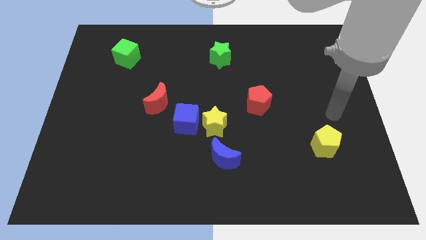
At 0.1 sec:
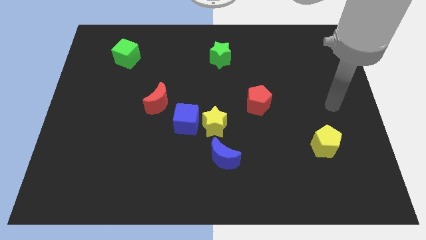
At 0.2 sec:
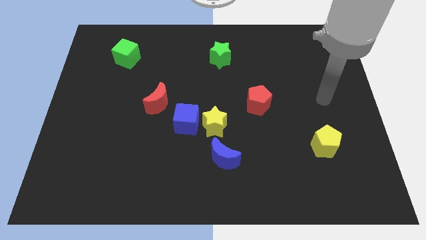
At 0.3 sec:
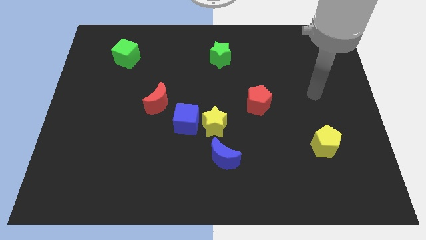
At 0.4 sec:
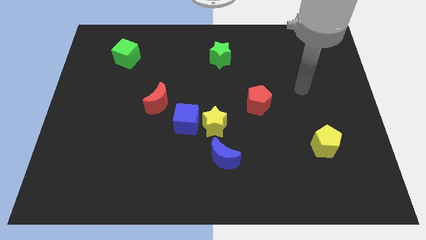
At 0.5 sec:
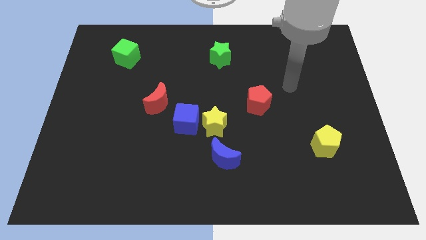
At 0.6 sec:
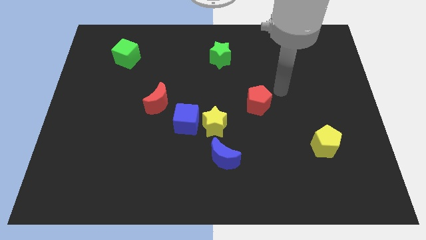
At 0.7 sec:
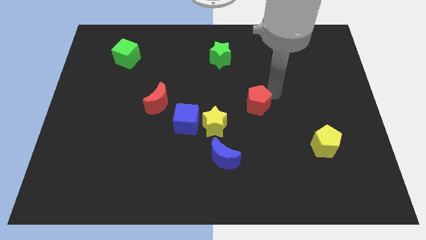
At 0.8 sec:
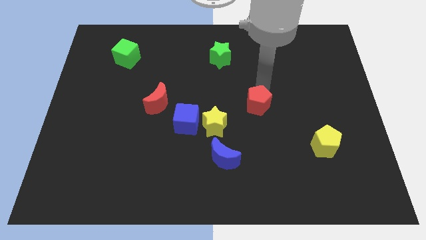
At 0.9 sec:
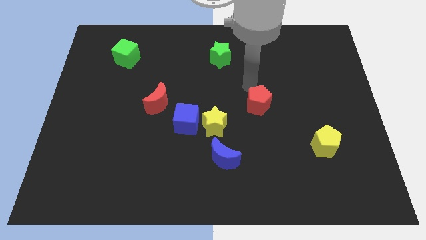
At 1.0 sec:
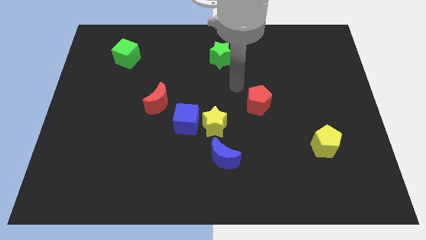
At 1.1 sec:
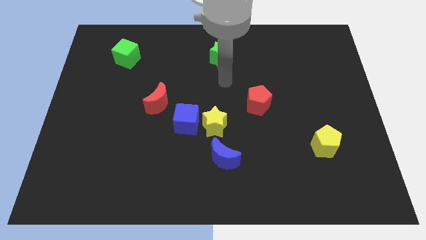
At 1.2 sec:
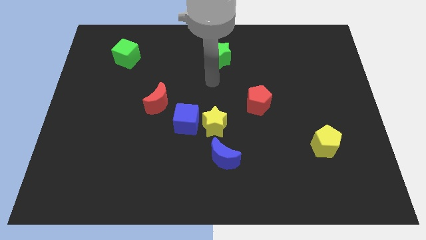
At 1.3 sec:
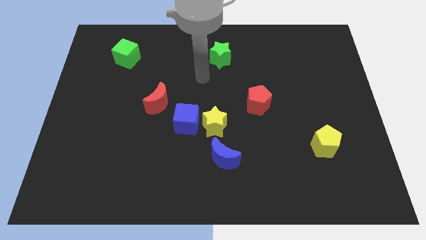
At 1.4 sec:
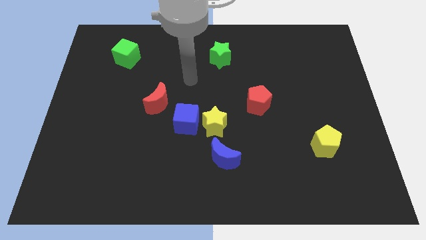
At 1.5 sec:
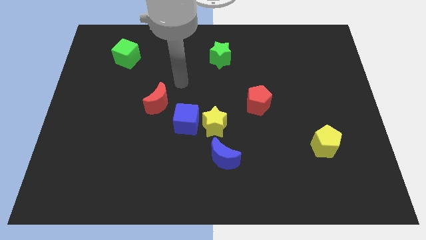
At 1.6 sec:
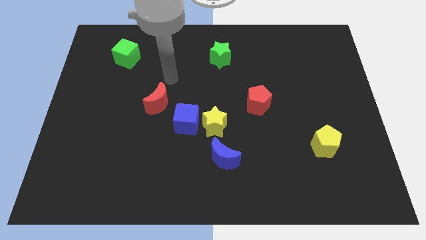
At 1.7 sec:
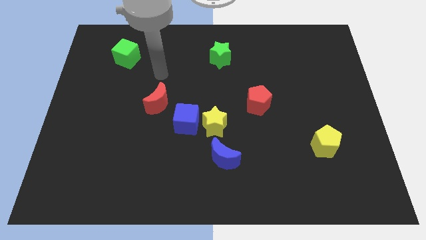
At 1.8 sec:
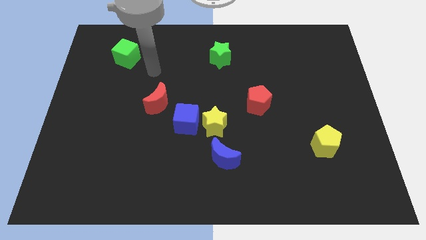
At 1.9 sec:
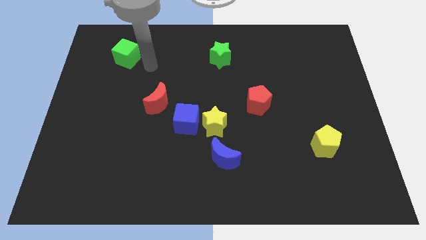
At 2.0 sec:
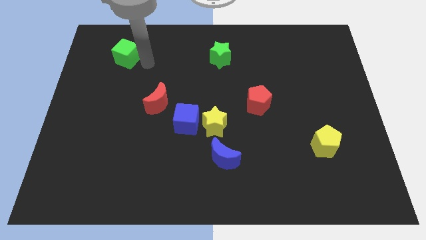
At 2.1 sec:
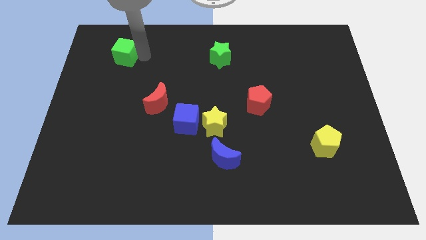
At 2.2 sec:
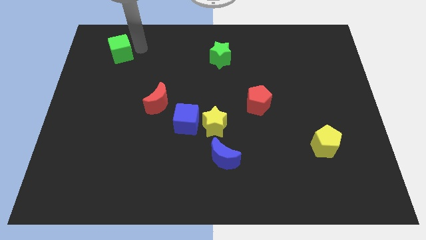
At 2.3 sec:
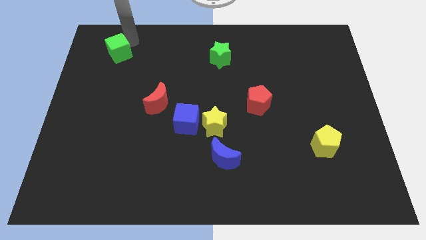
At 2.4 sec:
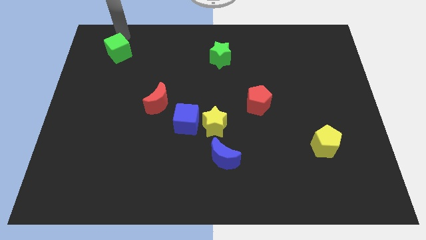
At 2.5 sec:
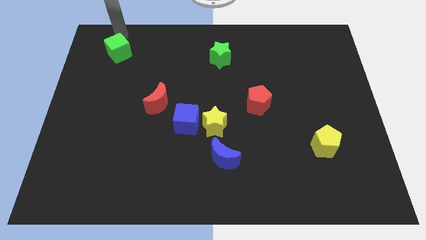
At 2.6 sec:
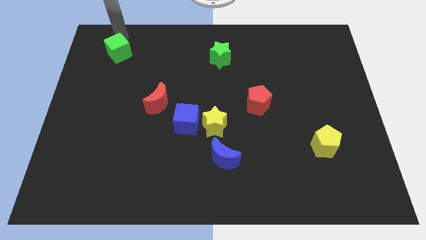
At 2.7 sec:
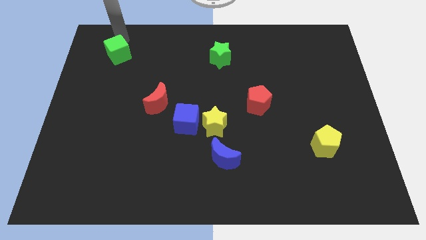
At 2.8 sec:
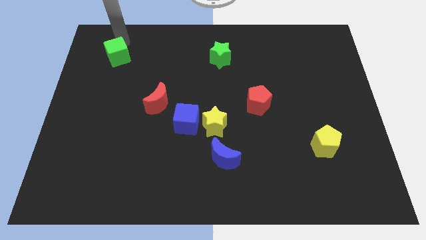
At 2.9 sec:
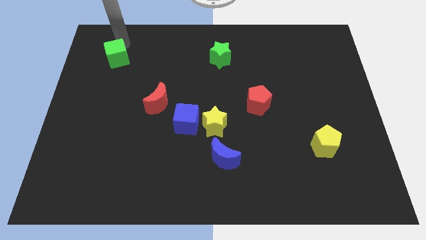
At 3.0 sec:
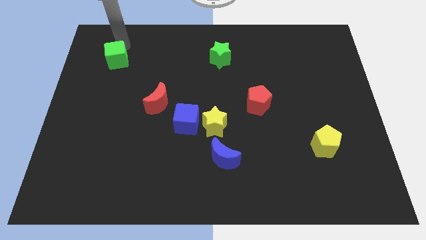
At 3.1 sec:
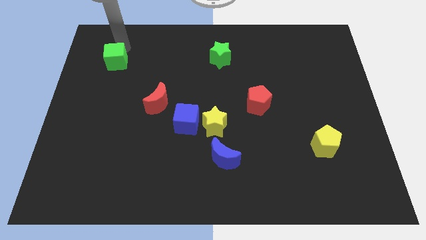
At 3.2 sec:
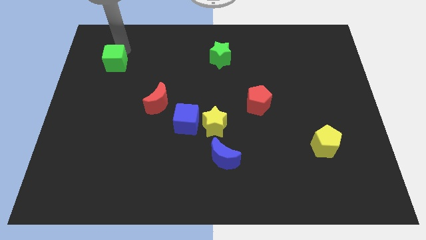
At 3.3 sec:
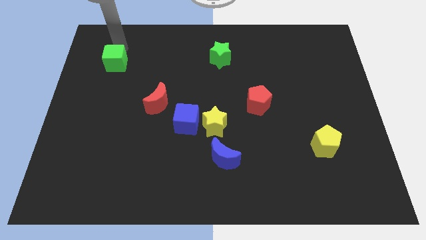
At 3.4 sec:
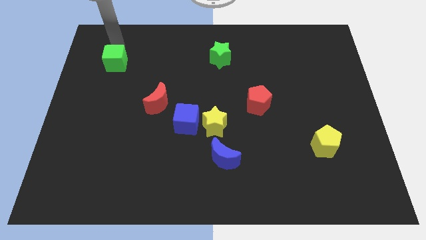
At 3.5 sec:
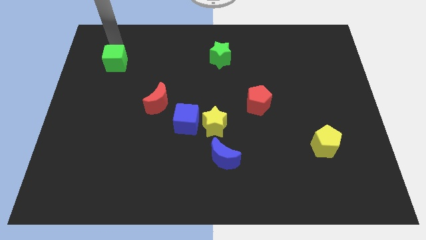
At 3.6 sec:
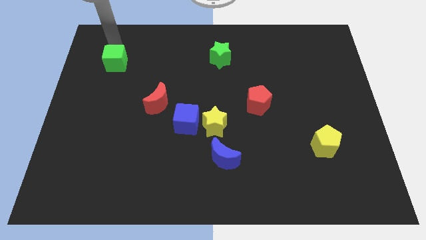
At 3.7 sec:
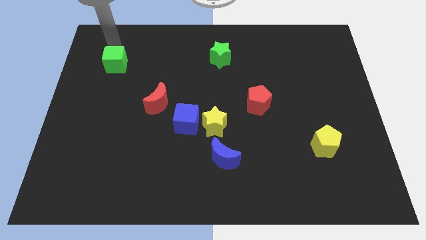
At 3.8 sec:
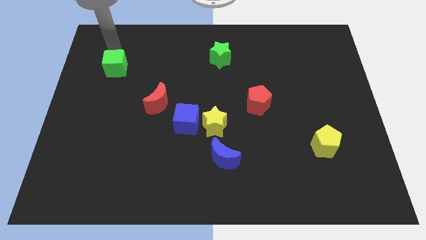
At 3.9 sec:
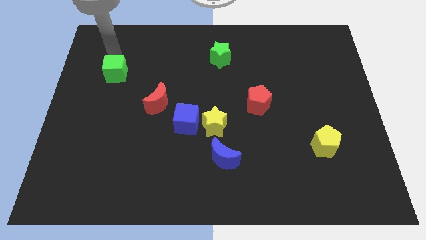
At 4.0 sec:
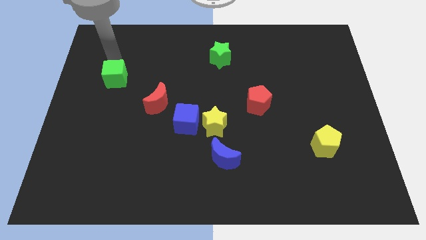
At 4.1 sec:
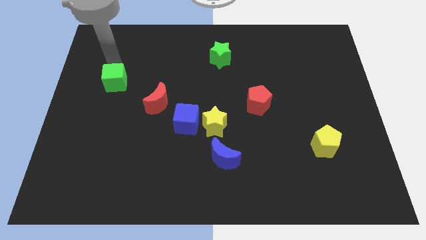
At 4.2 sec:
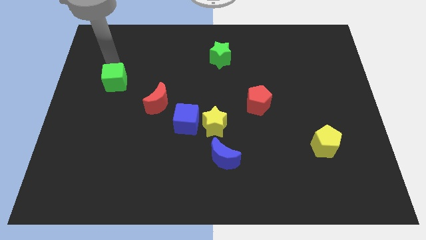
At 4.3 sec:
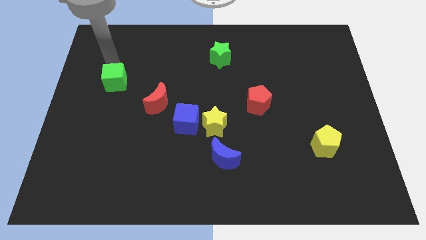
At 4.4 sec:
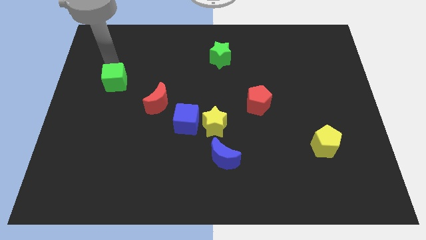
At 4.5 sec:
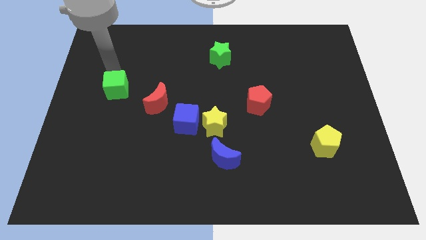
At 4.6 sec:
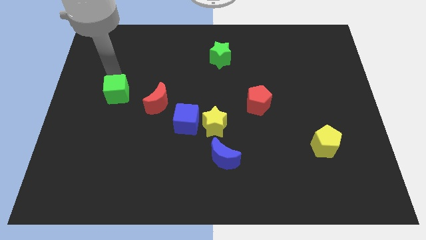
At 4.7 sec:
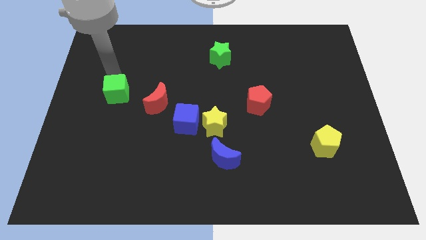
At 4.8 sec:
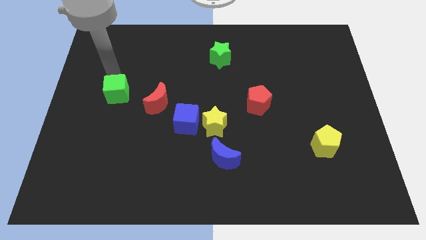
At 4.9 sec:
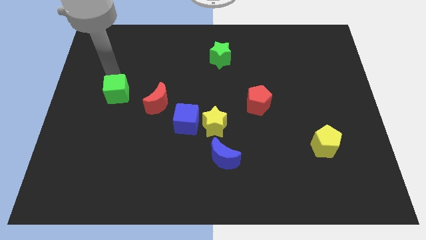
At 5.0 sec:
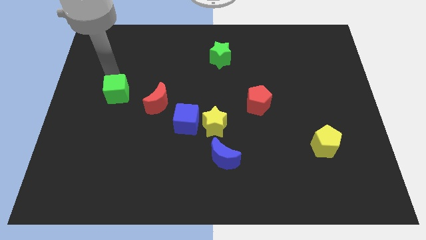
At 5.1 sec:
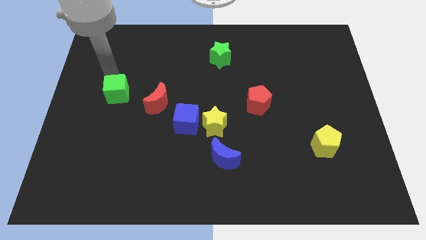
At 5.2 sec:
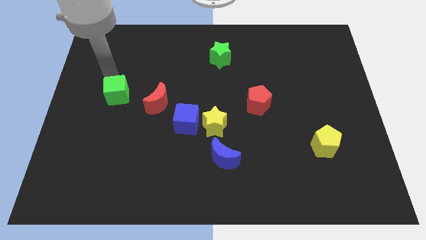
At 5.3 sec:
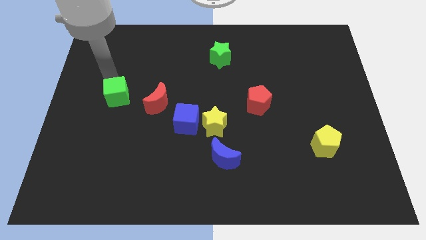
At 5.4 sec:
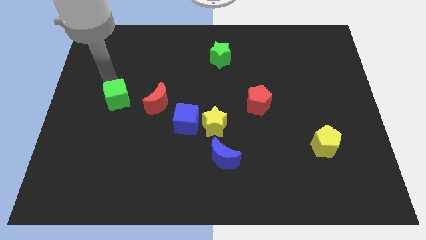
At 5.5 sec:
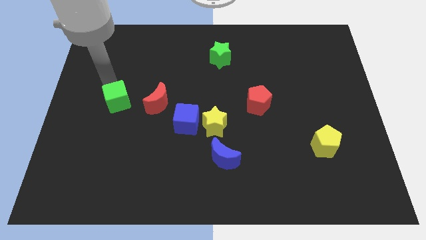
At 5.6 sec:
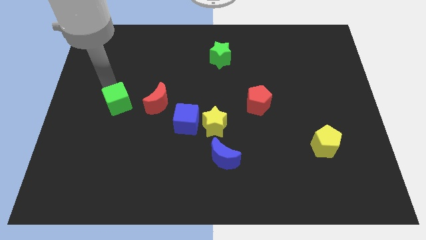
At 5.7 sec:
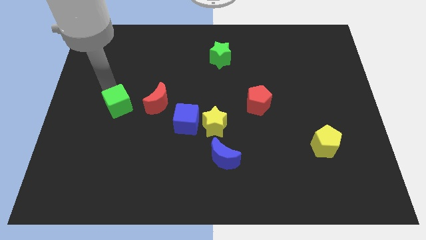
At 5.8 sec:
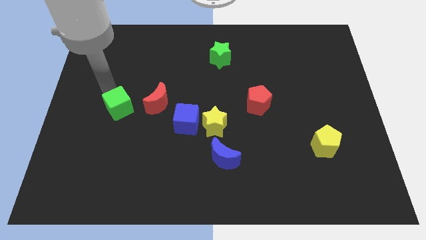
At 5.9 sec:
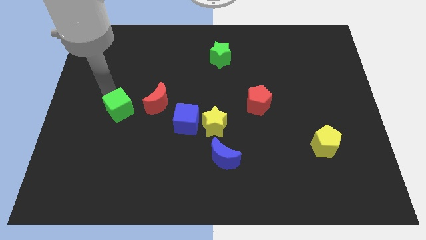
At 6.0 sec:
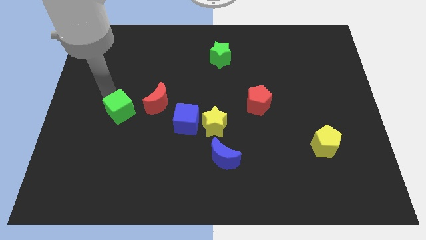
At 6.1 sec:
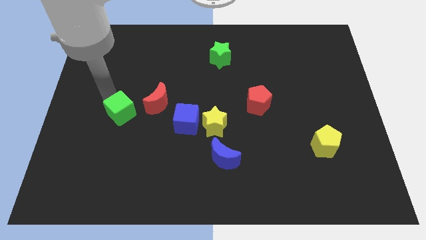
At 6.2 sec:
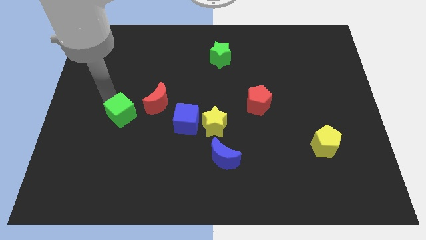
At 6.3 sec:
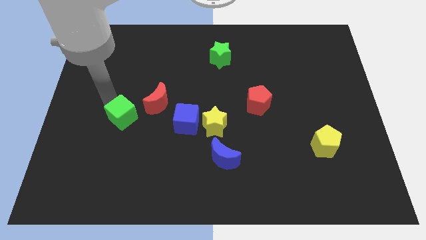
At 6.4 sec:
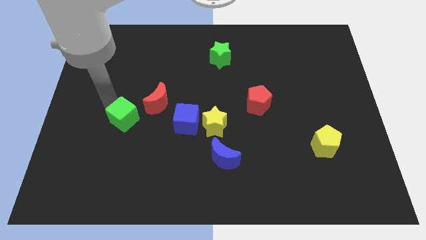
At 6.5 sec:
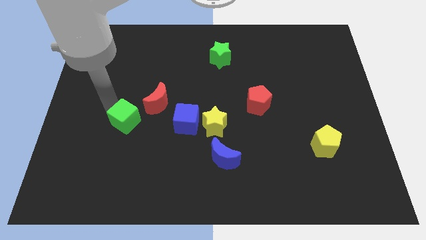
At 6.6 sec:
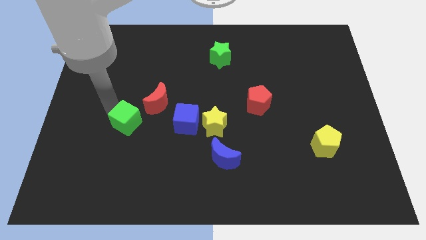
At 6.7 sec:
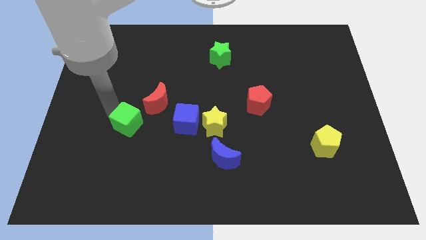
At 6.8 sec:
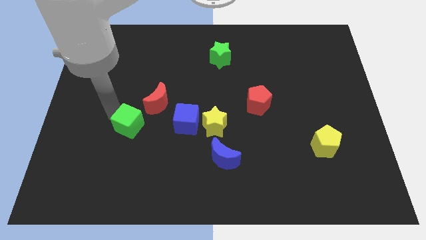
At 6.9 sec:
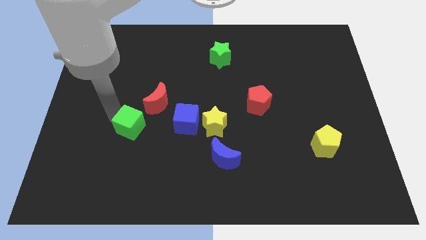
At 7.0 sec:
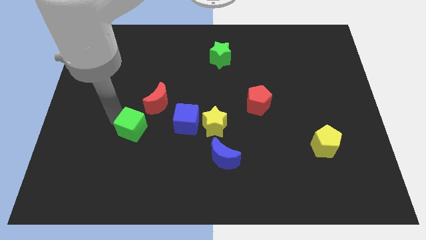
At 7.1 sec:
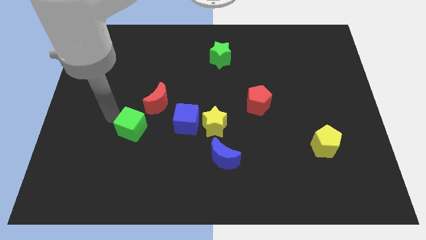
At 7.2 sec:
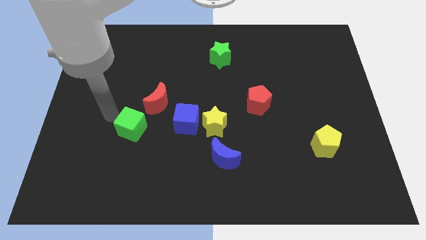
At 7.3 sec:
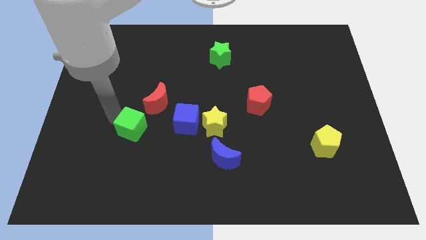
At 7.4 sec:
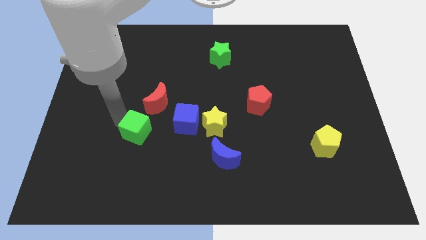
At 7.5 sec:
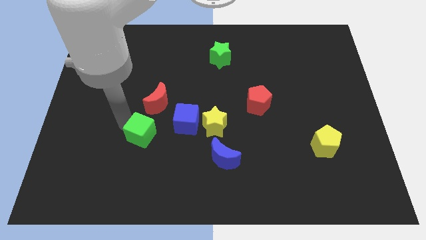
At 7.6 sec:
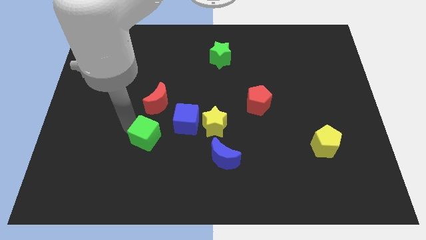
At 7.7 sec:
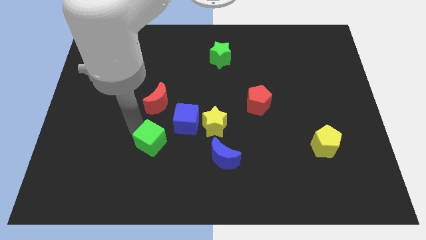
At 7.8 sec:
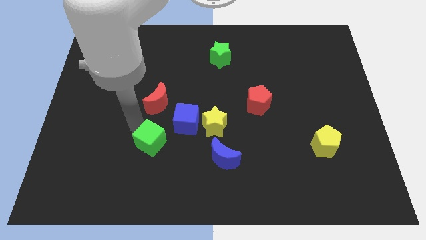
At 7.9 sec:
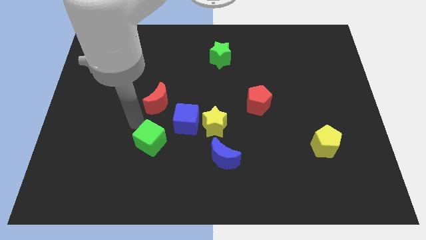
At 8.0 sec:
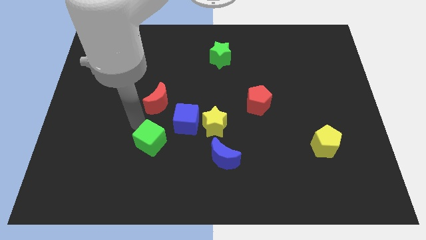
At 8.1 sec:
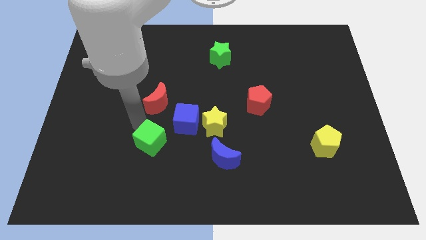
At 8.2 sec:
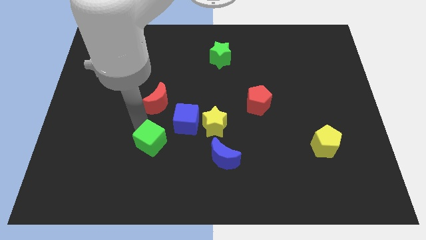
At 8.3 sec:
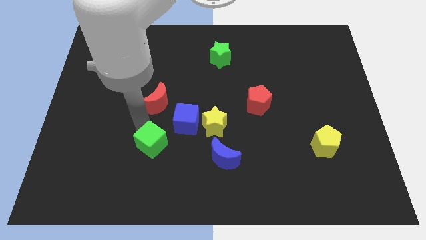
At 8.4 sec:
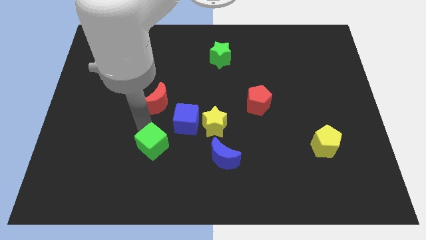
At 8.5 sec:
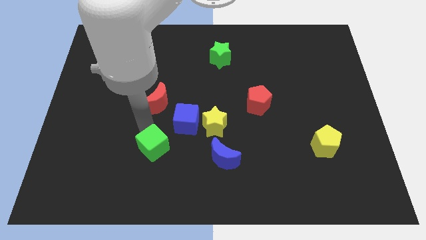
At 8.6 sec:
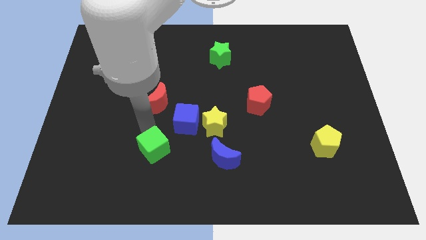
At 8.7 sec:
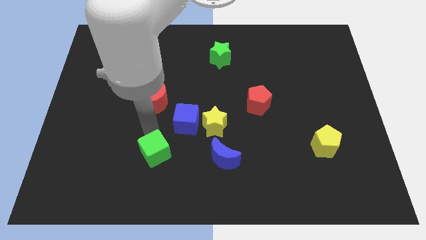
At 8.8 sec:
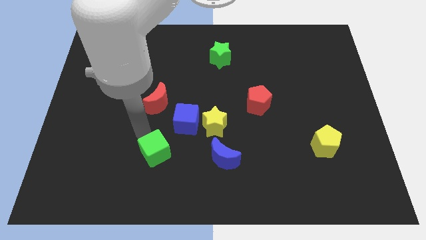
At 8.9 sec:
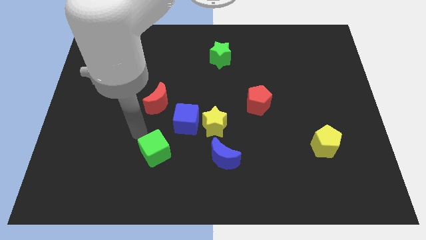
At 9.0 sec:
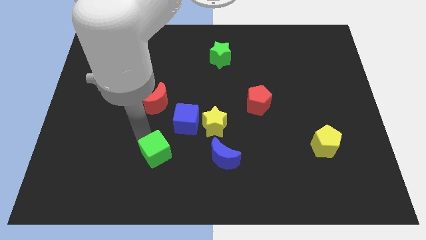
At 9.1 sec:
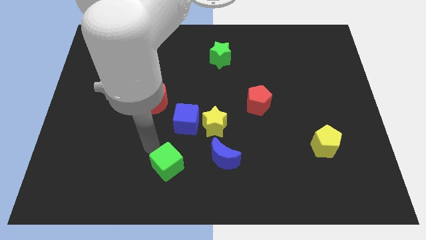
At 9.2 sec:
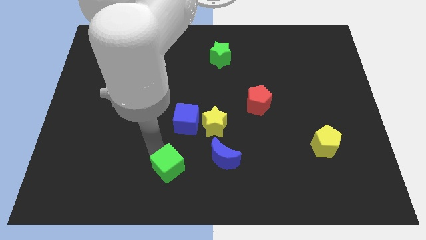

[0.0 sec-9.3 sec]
slide the green cube to the bottom side
